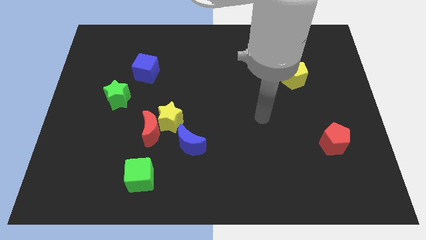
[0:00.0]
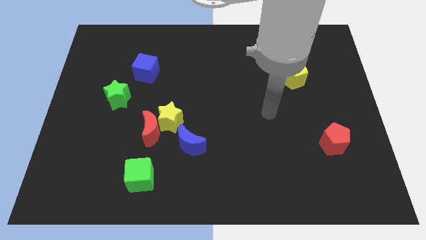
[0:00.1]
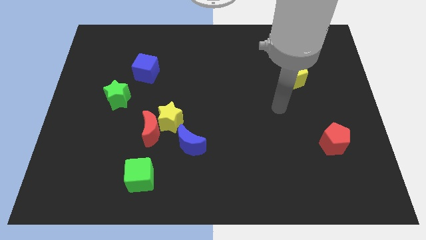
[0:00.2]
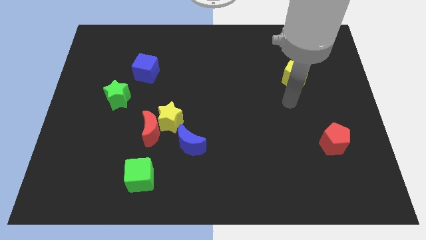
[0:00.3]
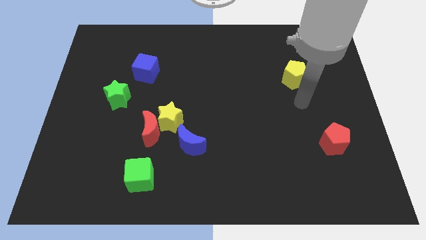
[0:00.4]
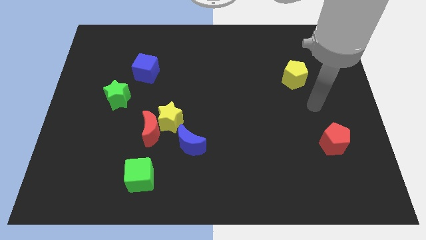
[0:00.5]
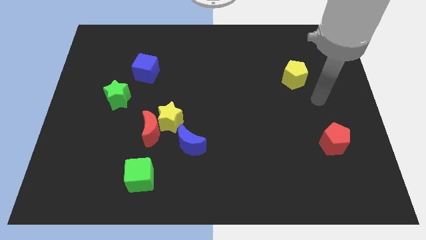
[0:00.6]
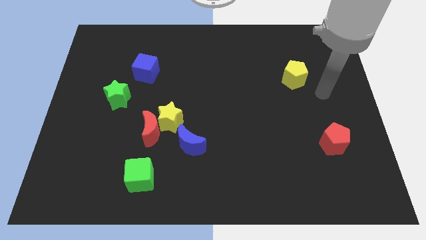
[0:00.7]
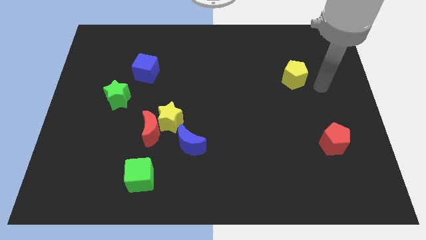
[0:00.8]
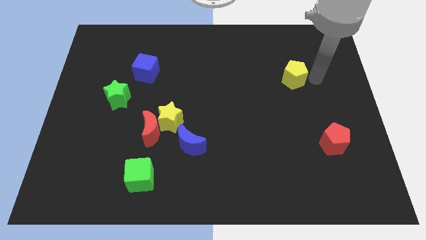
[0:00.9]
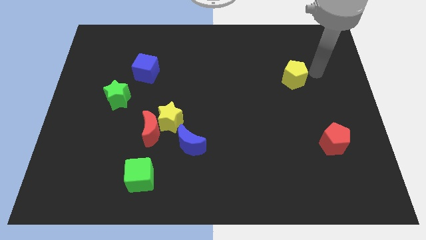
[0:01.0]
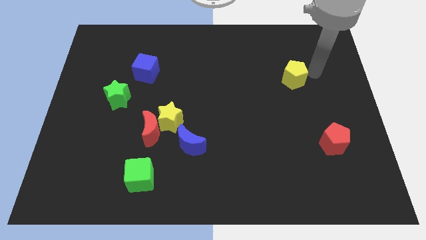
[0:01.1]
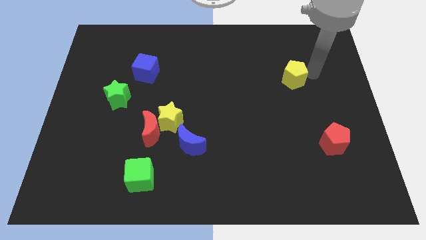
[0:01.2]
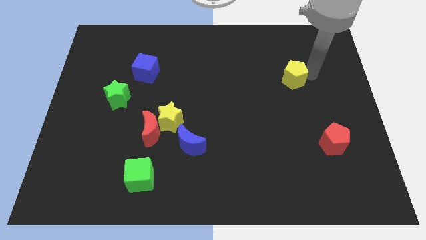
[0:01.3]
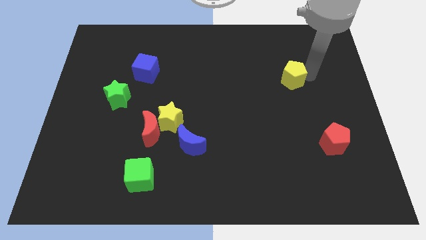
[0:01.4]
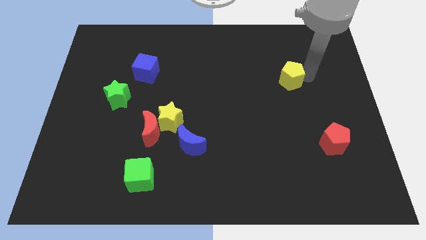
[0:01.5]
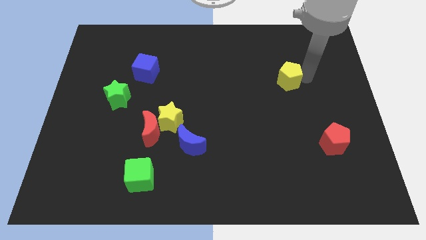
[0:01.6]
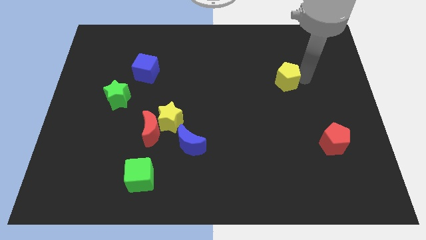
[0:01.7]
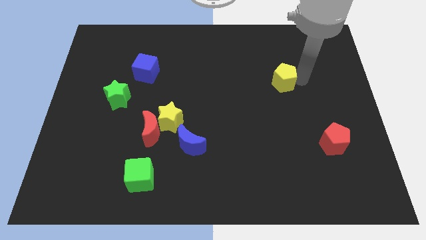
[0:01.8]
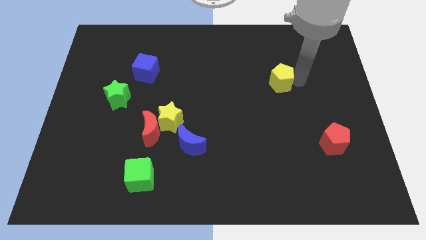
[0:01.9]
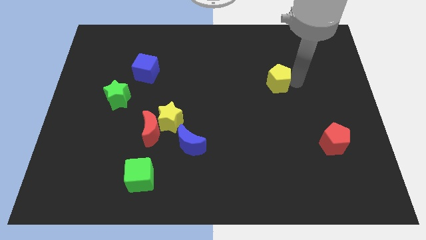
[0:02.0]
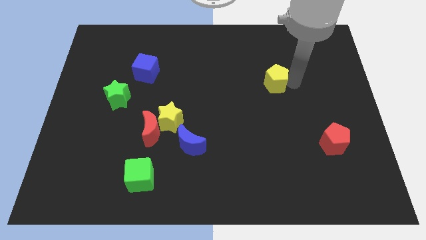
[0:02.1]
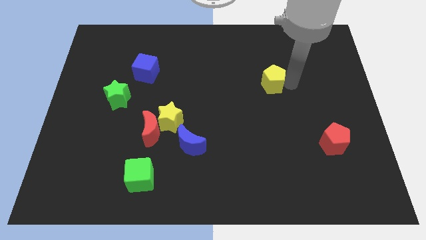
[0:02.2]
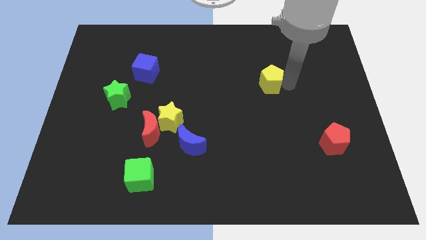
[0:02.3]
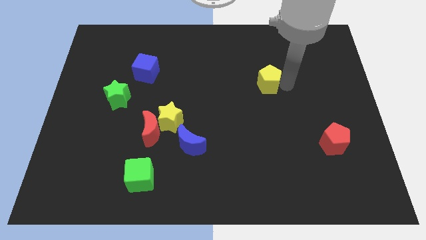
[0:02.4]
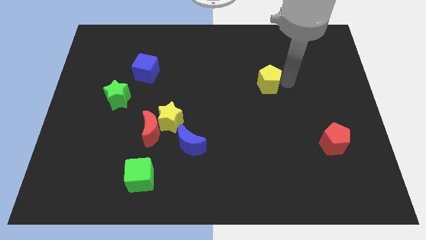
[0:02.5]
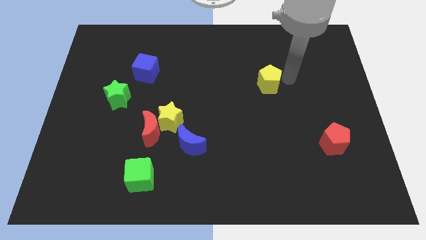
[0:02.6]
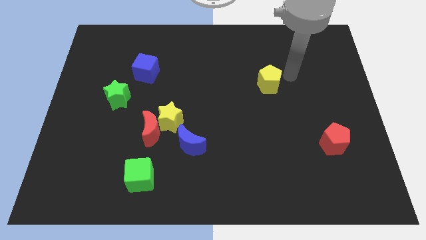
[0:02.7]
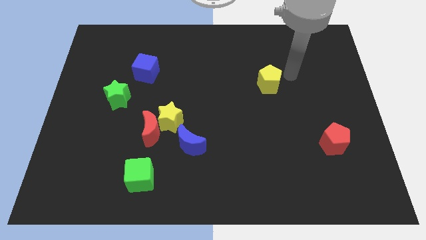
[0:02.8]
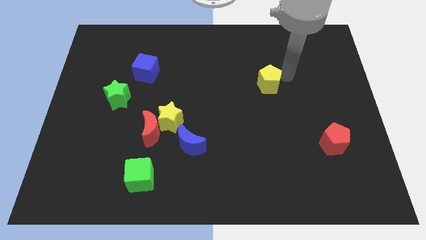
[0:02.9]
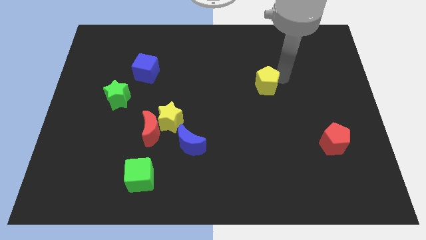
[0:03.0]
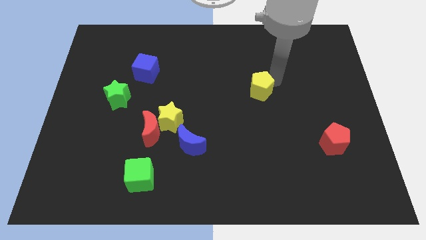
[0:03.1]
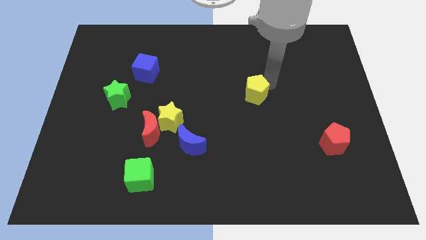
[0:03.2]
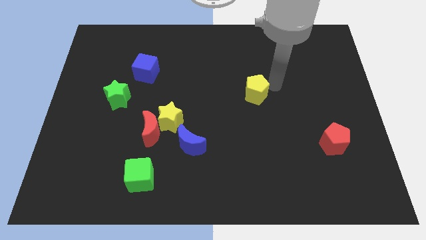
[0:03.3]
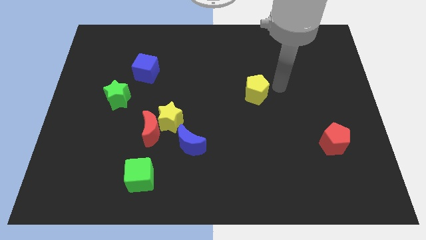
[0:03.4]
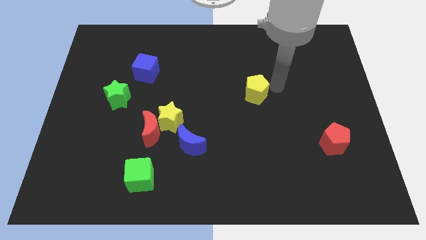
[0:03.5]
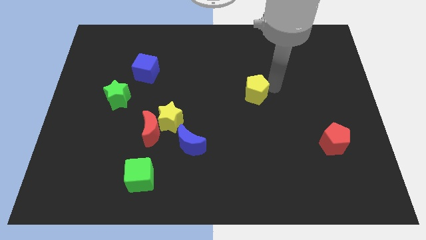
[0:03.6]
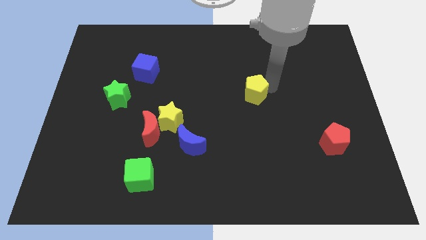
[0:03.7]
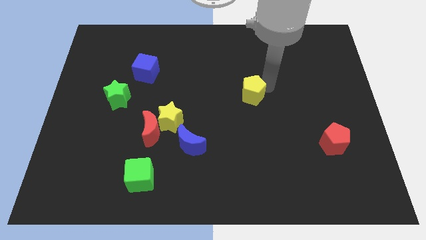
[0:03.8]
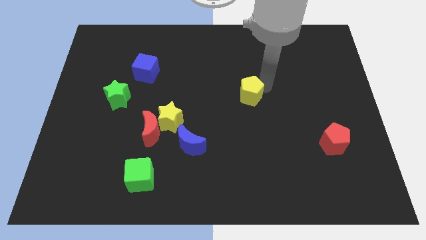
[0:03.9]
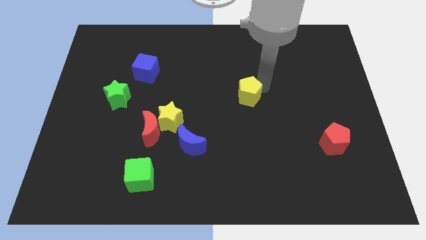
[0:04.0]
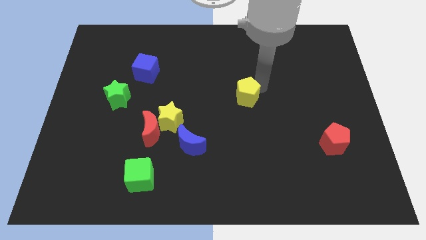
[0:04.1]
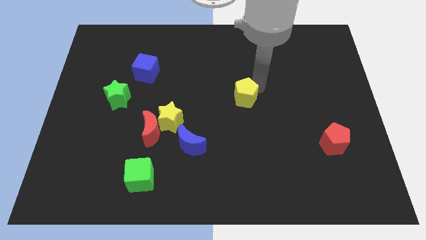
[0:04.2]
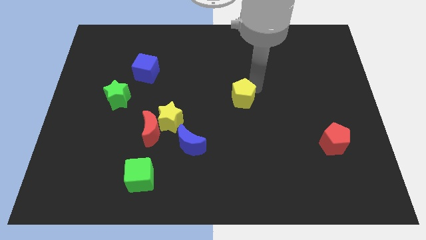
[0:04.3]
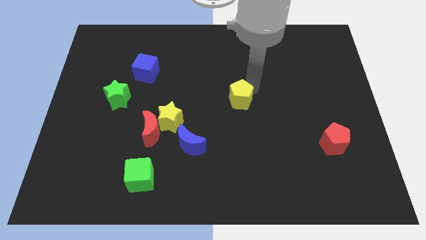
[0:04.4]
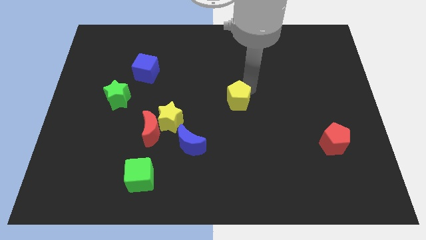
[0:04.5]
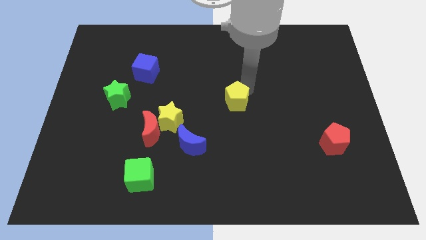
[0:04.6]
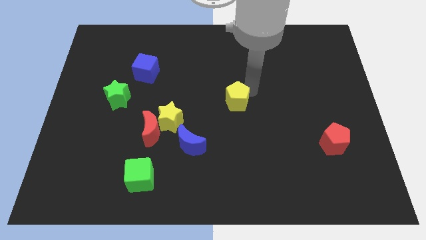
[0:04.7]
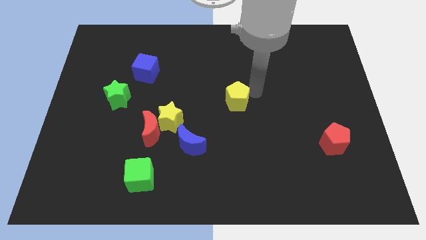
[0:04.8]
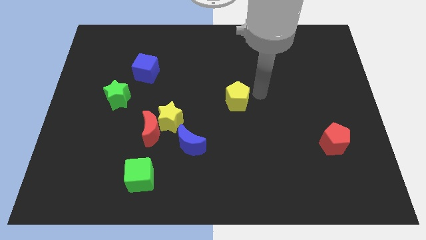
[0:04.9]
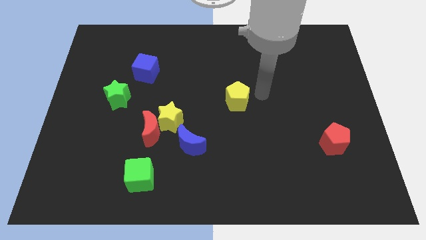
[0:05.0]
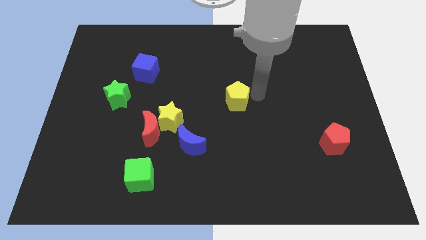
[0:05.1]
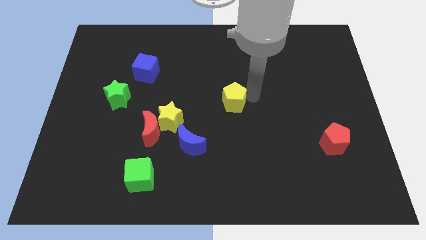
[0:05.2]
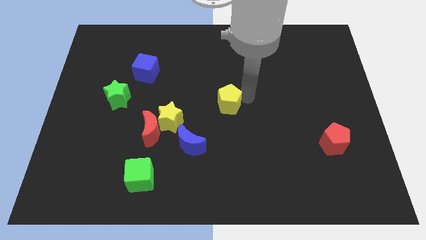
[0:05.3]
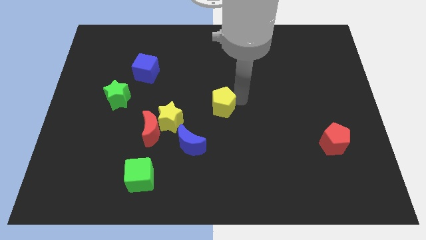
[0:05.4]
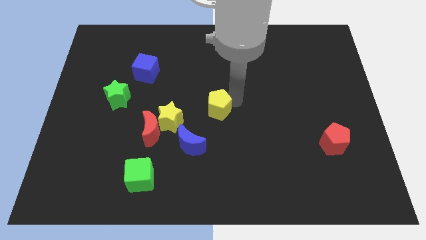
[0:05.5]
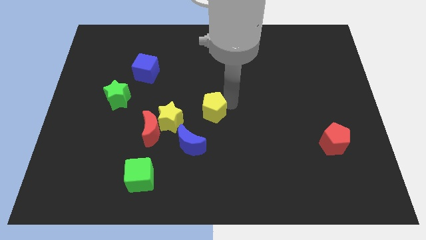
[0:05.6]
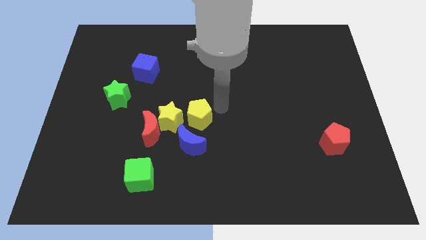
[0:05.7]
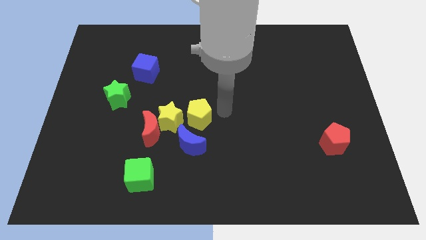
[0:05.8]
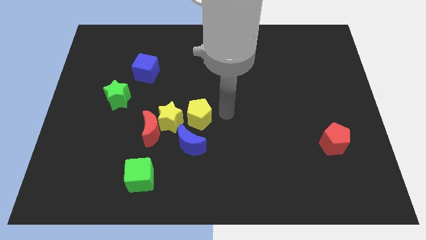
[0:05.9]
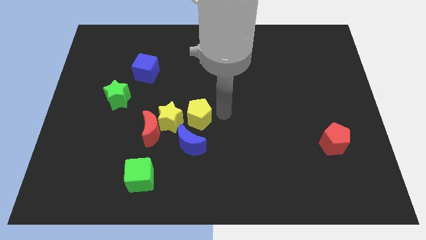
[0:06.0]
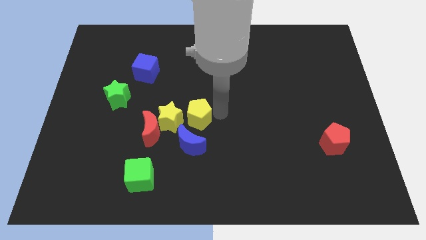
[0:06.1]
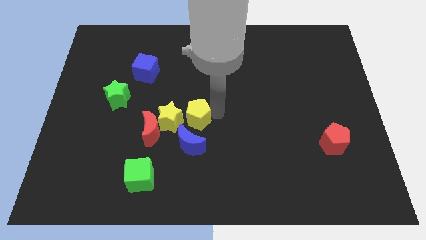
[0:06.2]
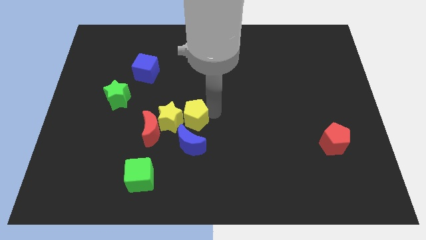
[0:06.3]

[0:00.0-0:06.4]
push the yellow pentagon close to the yellow star

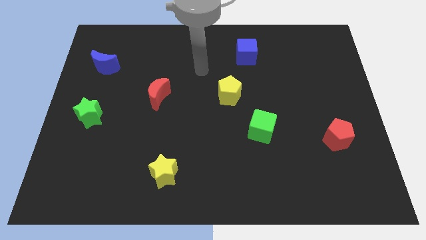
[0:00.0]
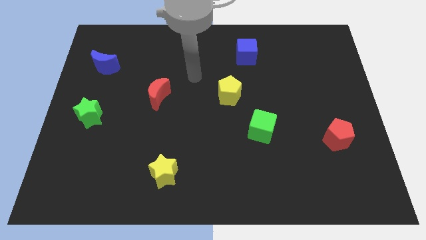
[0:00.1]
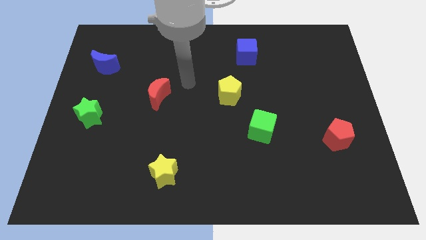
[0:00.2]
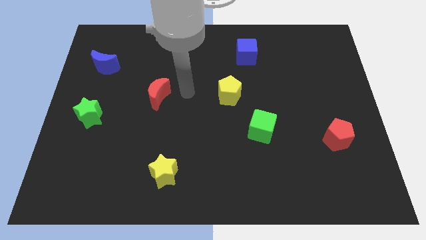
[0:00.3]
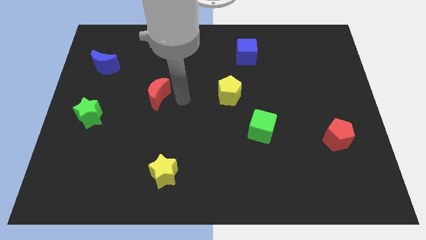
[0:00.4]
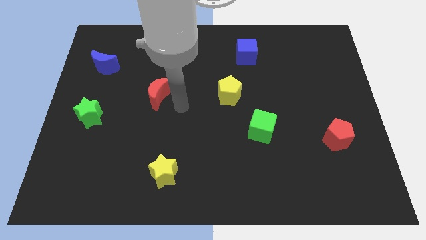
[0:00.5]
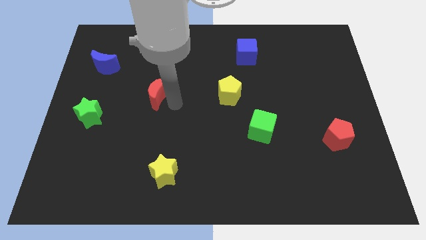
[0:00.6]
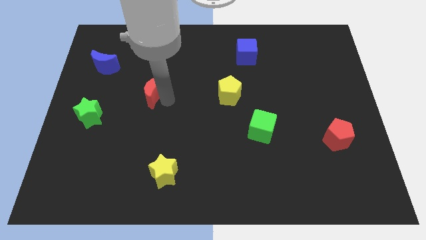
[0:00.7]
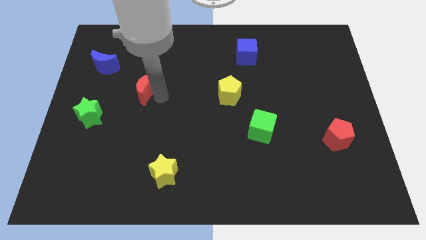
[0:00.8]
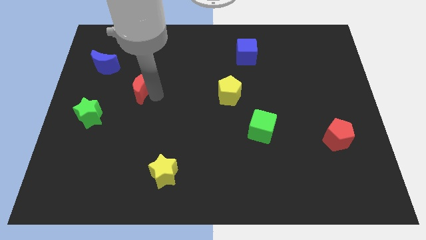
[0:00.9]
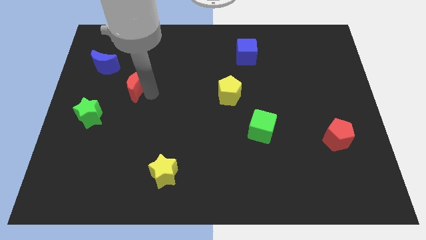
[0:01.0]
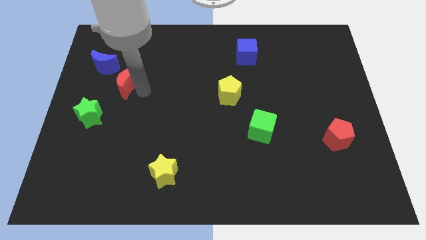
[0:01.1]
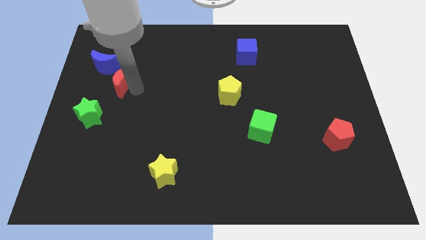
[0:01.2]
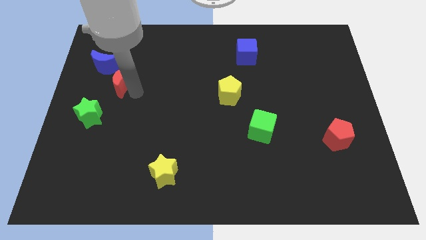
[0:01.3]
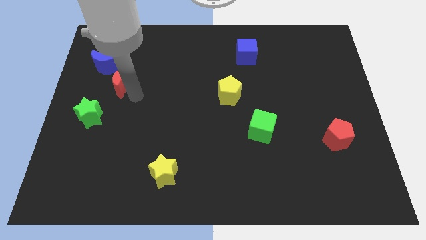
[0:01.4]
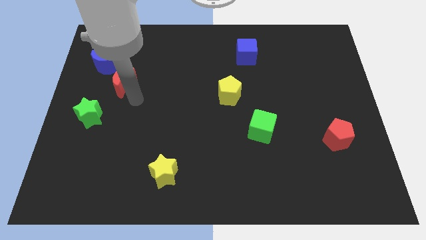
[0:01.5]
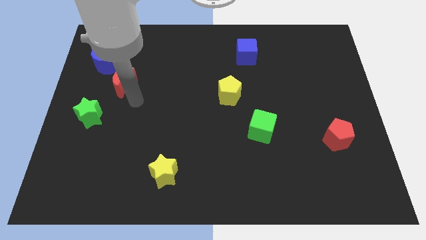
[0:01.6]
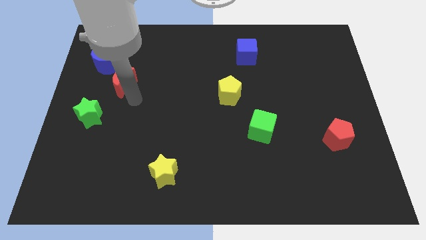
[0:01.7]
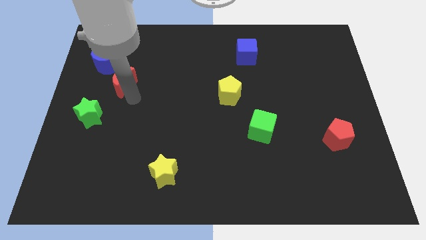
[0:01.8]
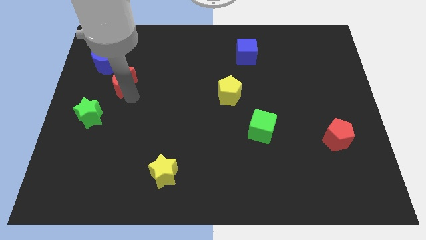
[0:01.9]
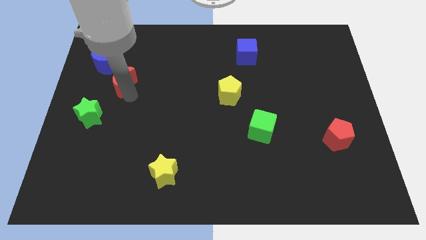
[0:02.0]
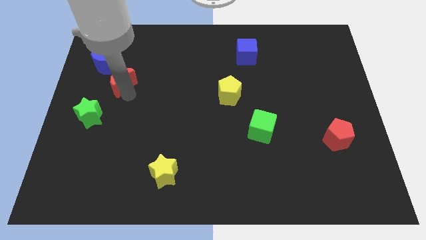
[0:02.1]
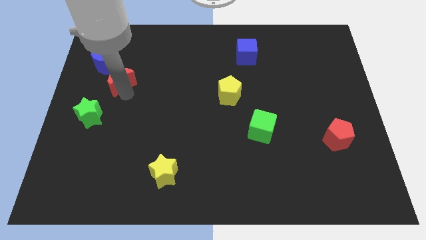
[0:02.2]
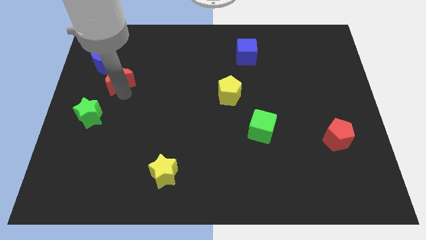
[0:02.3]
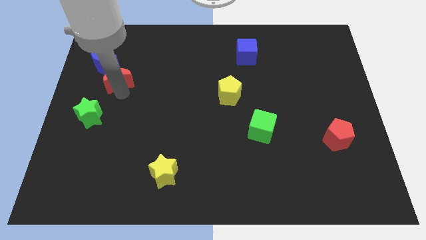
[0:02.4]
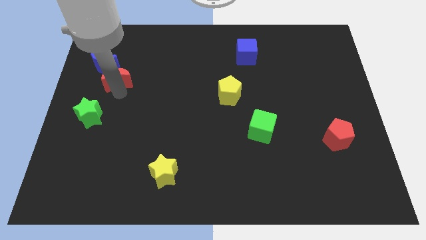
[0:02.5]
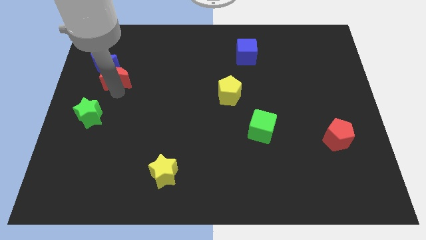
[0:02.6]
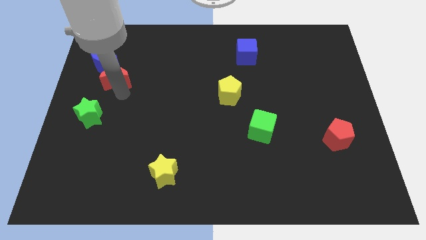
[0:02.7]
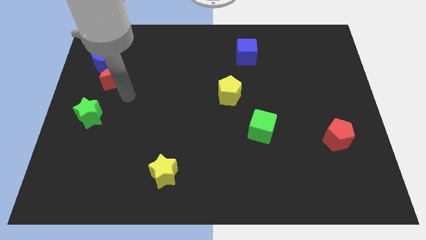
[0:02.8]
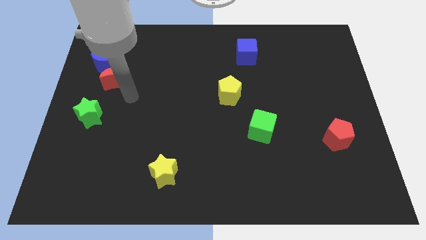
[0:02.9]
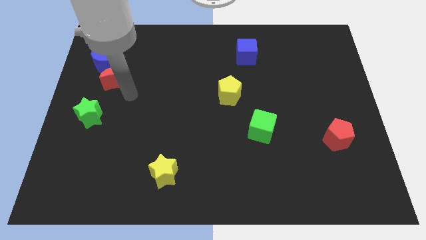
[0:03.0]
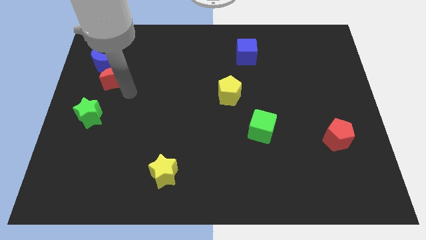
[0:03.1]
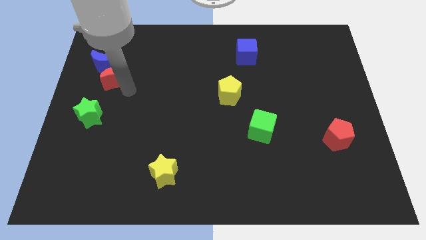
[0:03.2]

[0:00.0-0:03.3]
put the red moon close to the blue moon
